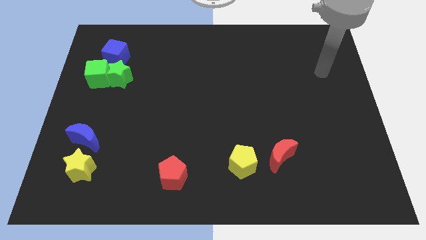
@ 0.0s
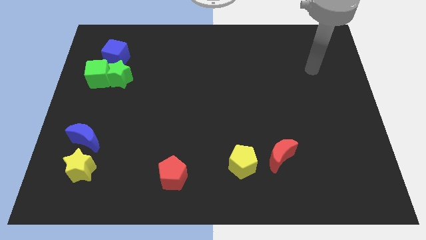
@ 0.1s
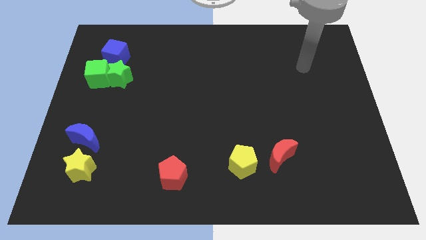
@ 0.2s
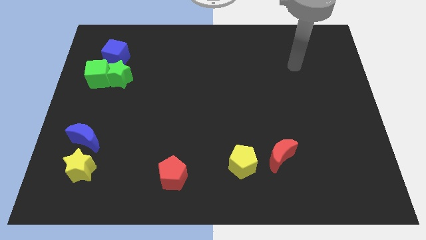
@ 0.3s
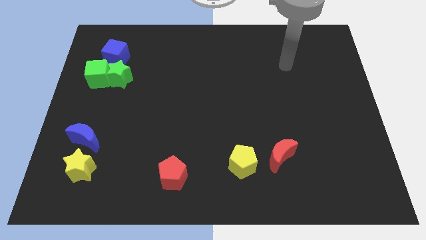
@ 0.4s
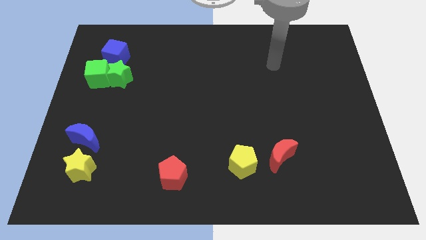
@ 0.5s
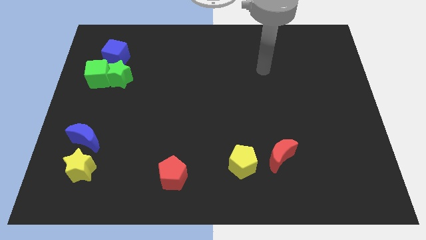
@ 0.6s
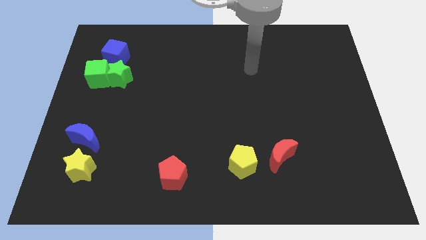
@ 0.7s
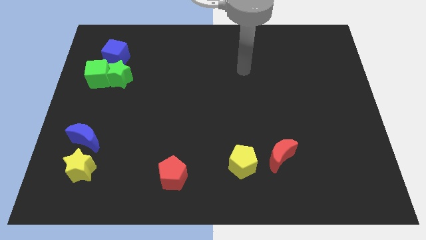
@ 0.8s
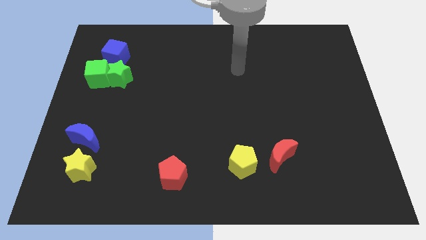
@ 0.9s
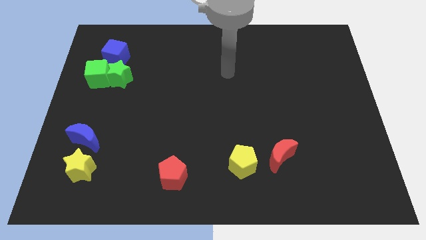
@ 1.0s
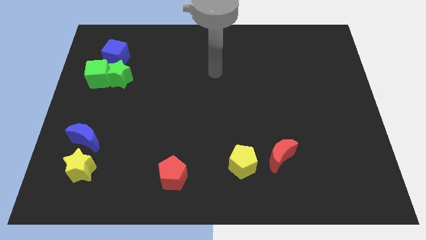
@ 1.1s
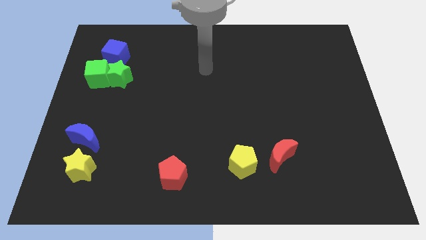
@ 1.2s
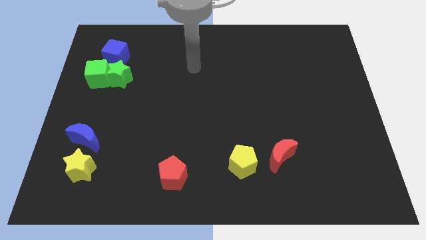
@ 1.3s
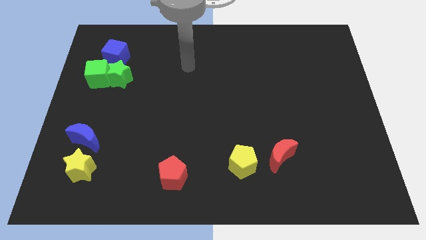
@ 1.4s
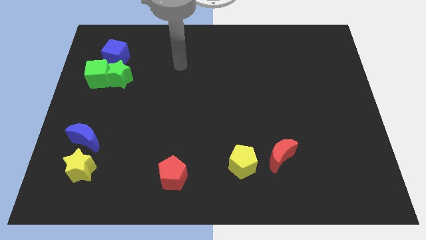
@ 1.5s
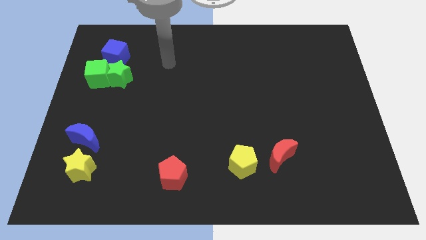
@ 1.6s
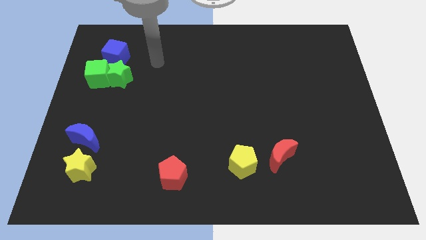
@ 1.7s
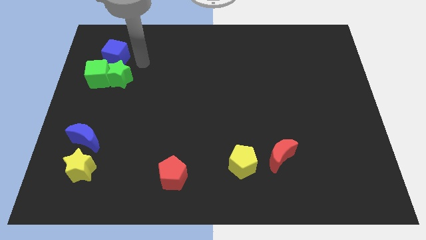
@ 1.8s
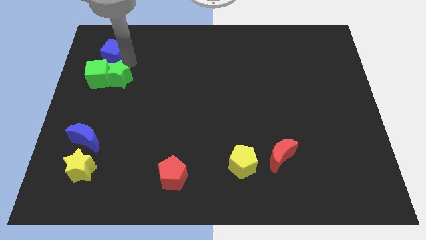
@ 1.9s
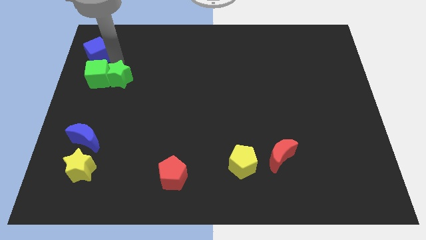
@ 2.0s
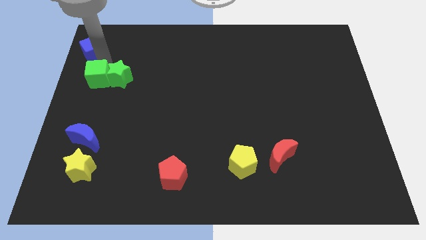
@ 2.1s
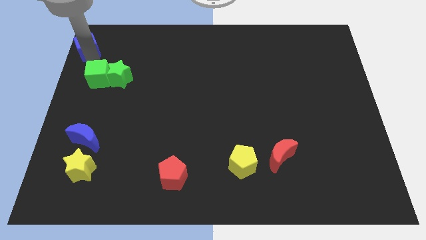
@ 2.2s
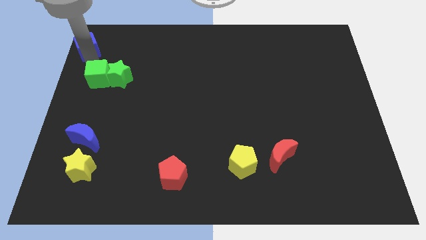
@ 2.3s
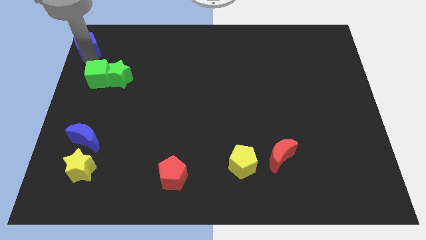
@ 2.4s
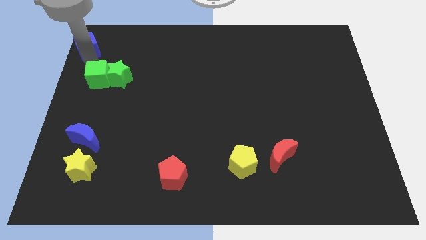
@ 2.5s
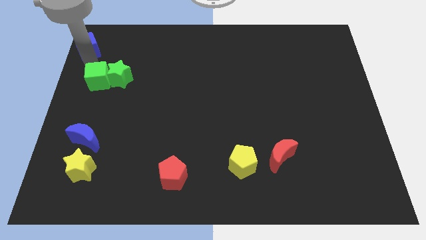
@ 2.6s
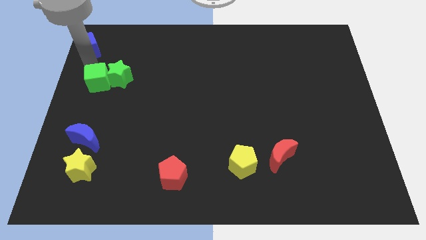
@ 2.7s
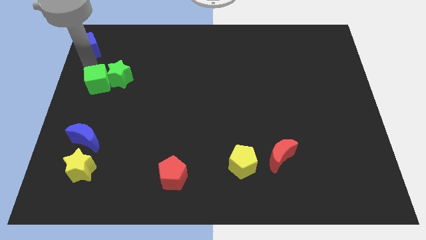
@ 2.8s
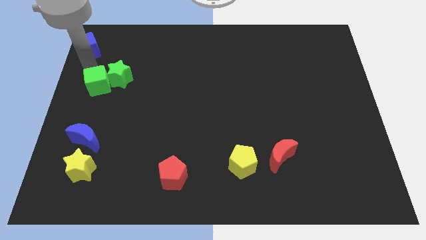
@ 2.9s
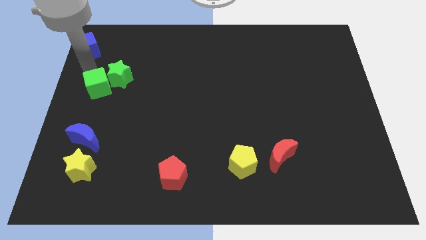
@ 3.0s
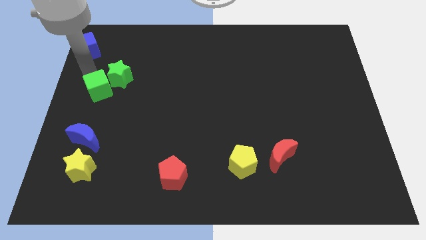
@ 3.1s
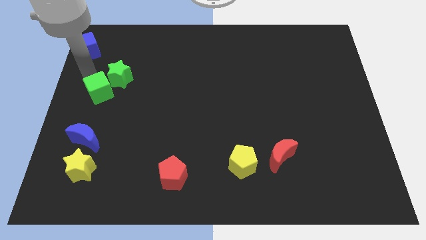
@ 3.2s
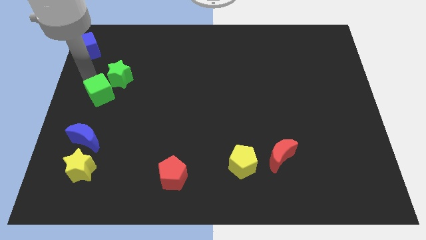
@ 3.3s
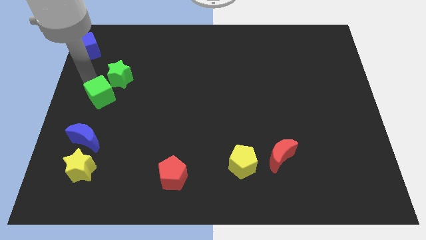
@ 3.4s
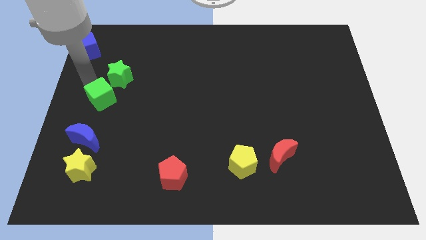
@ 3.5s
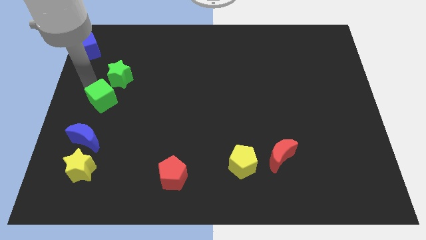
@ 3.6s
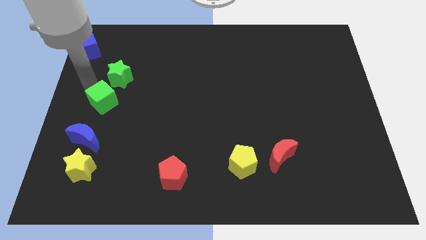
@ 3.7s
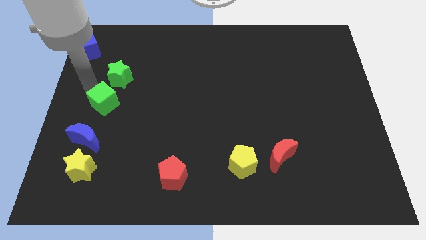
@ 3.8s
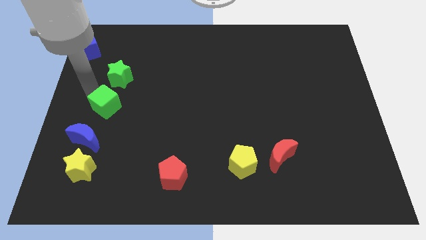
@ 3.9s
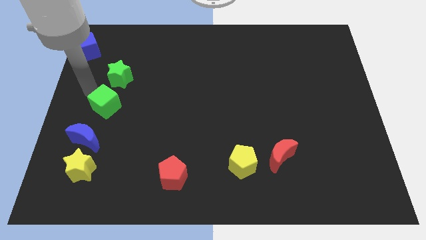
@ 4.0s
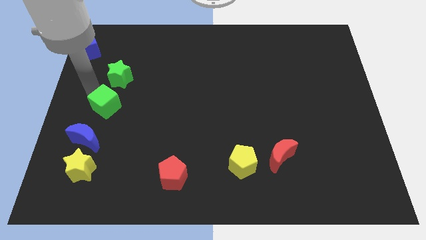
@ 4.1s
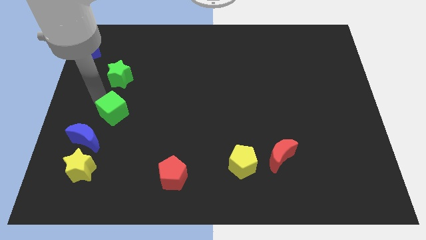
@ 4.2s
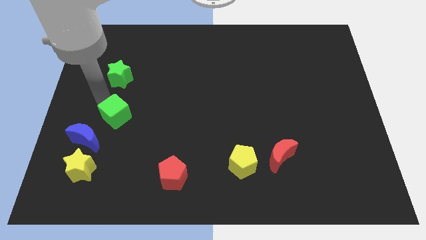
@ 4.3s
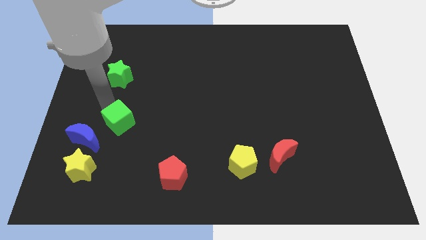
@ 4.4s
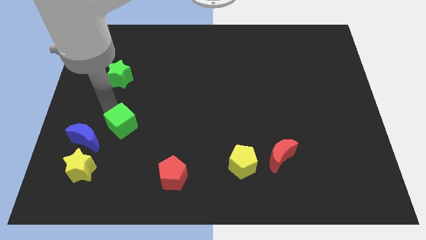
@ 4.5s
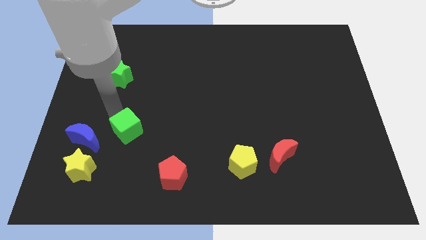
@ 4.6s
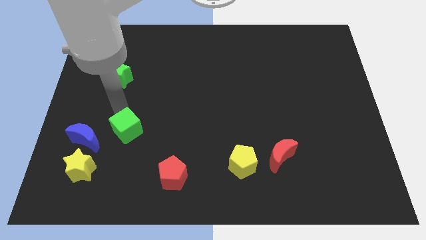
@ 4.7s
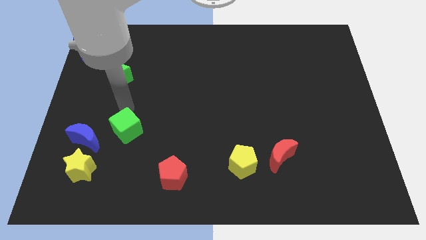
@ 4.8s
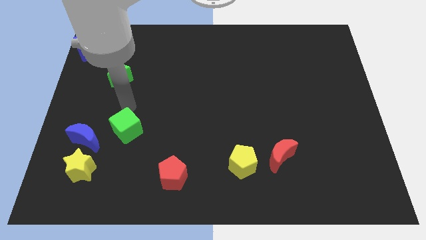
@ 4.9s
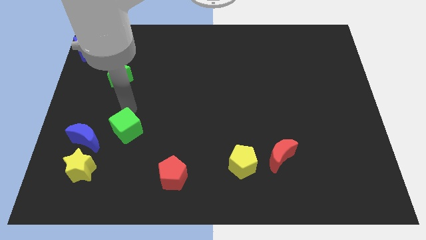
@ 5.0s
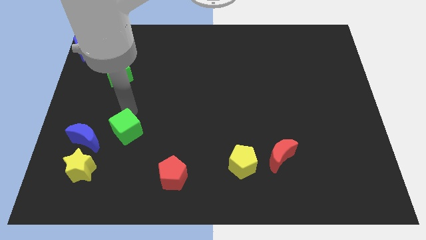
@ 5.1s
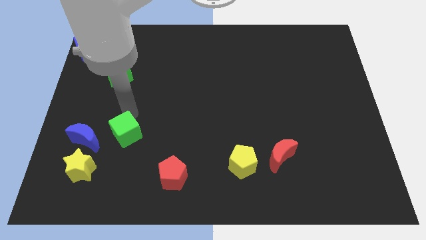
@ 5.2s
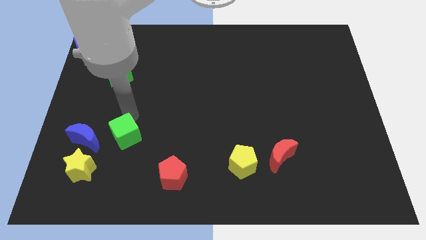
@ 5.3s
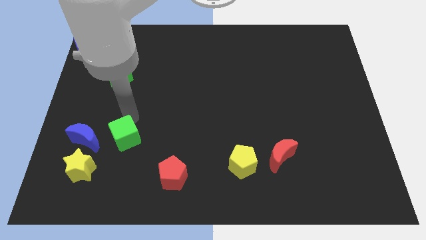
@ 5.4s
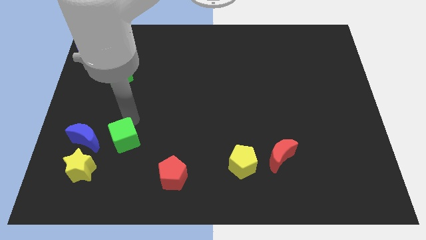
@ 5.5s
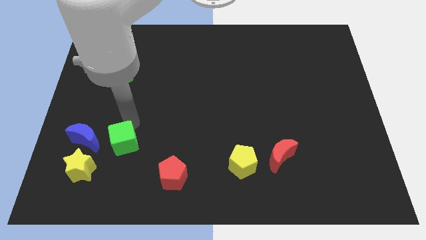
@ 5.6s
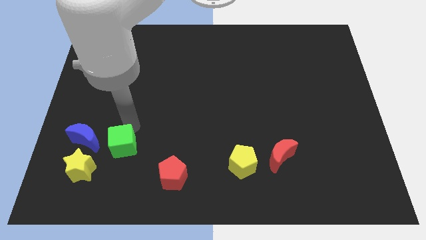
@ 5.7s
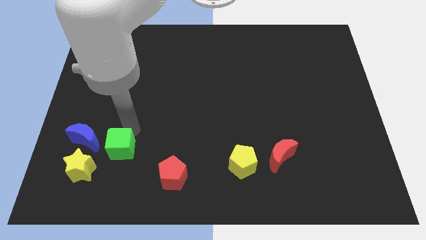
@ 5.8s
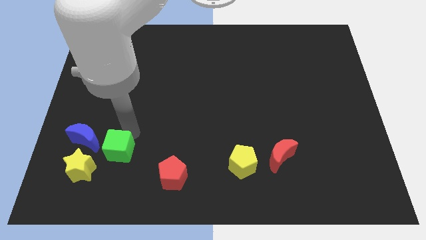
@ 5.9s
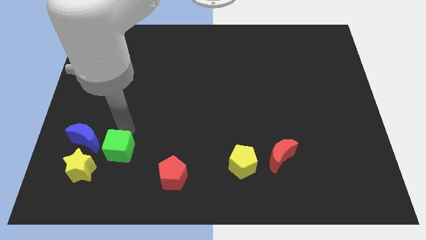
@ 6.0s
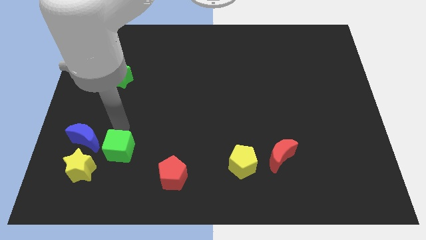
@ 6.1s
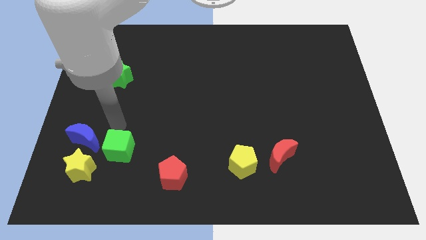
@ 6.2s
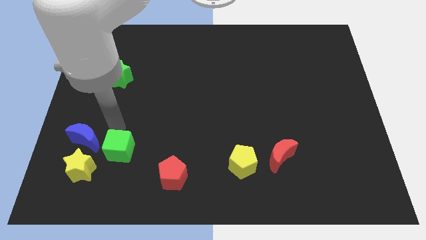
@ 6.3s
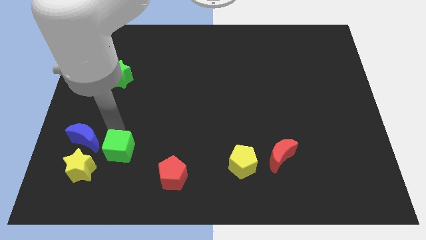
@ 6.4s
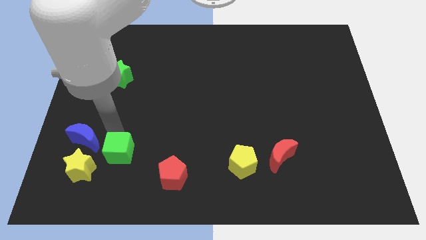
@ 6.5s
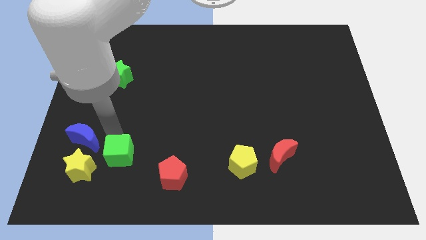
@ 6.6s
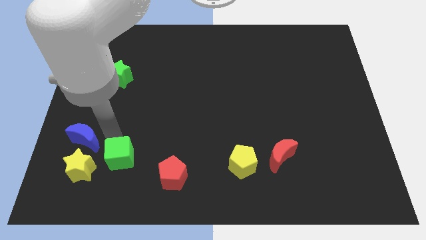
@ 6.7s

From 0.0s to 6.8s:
slide the green cube to the left of the red pentagon
